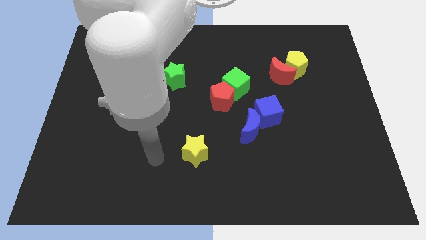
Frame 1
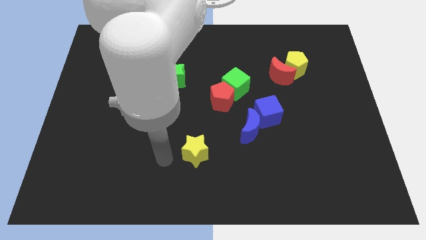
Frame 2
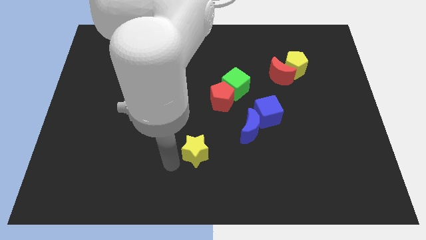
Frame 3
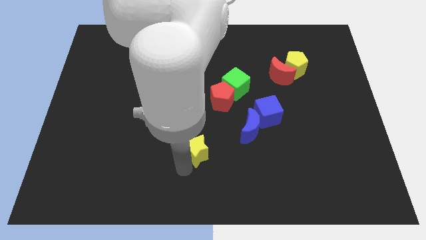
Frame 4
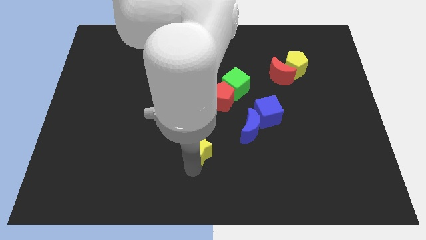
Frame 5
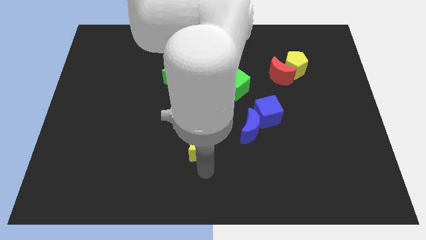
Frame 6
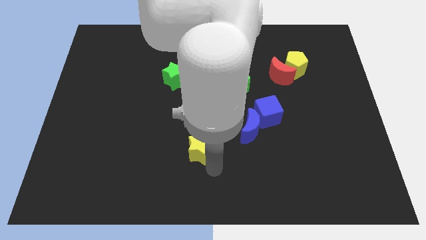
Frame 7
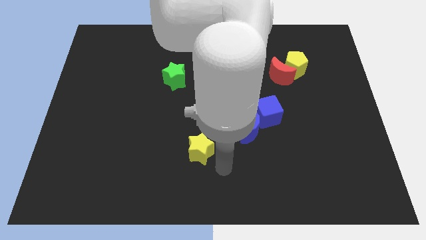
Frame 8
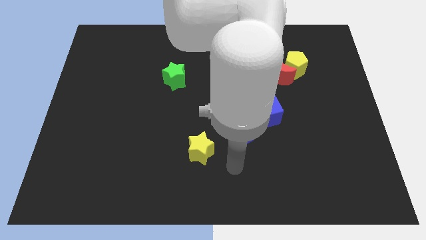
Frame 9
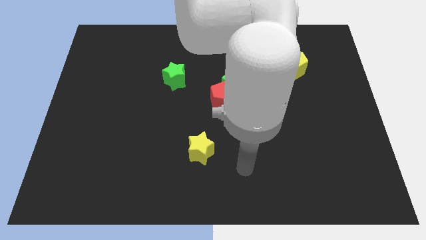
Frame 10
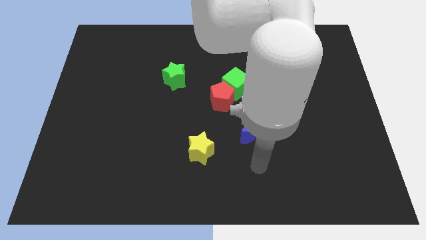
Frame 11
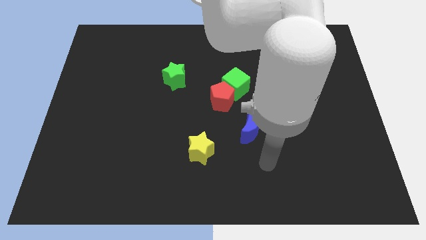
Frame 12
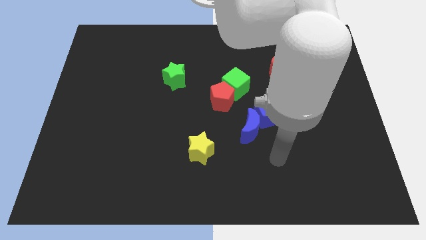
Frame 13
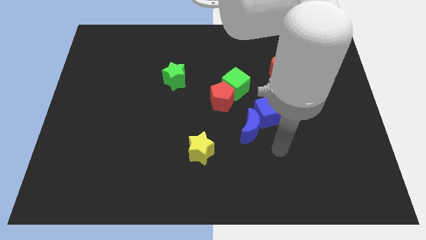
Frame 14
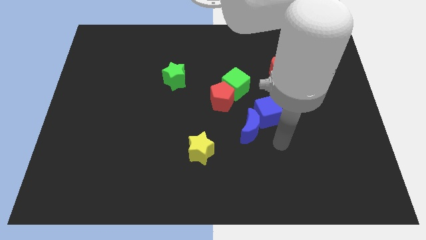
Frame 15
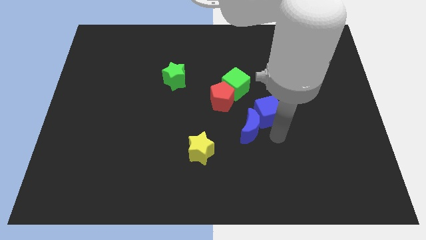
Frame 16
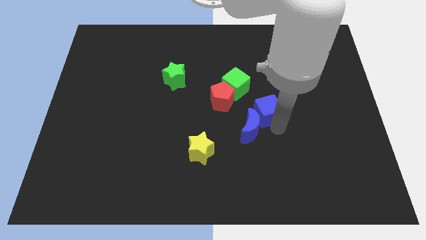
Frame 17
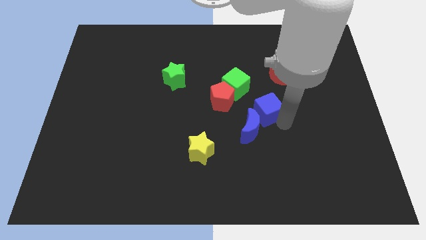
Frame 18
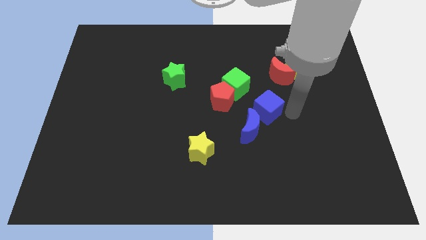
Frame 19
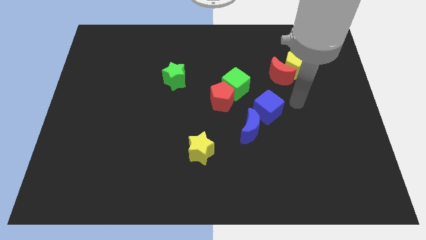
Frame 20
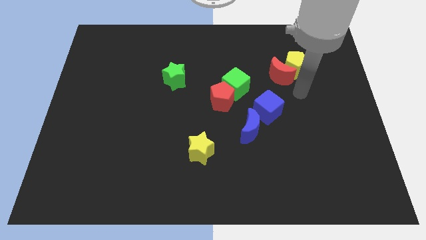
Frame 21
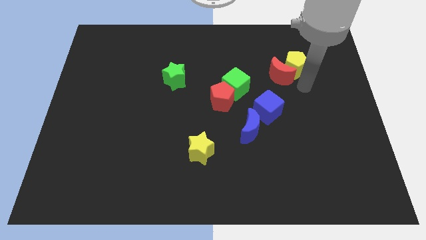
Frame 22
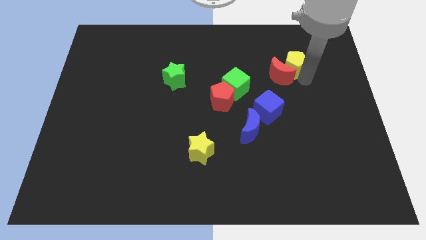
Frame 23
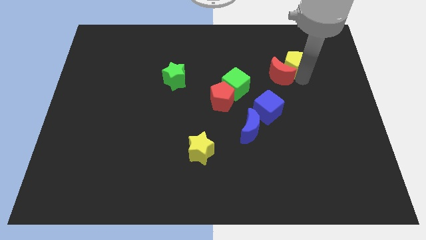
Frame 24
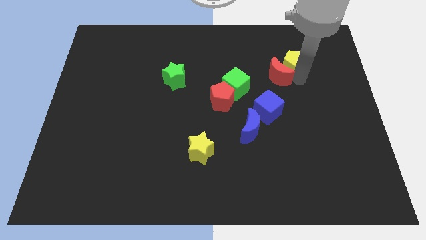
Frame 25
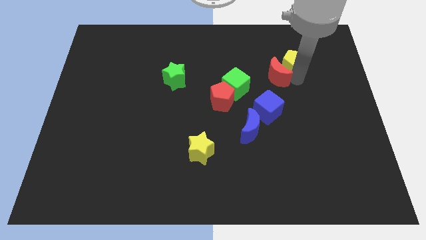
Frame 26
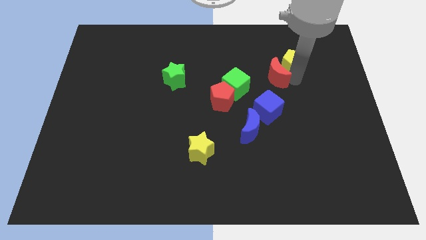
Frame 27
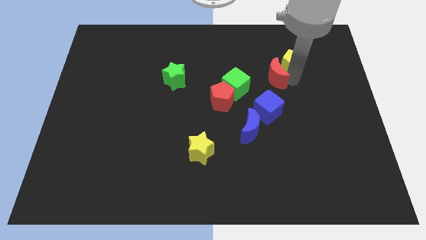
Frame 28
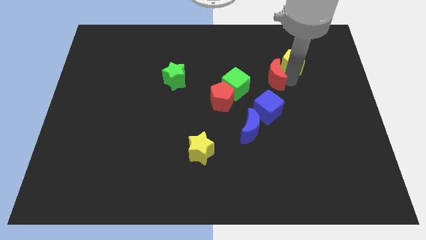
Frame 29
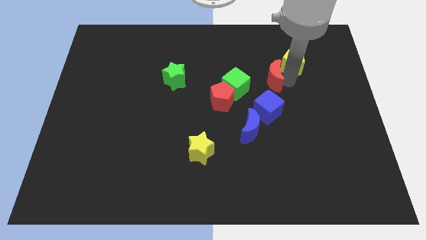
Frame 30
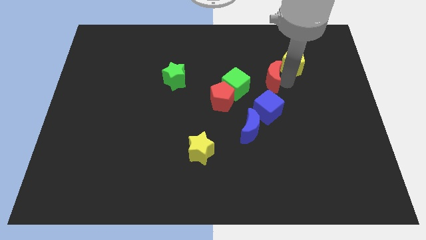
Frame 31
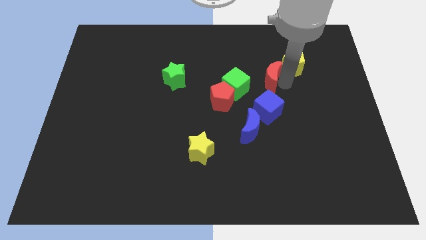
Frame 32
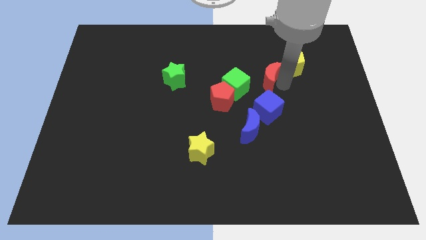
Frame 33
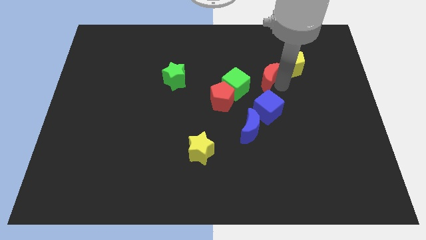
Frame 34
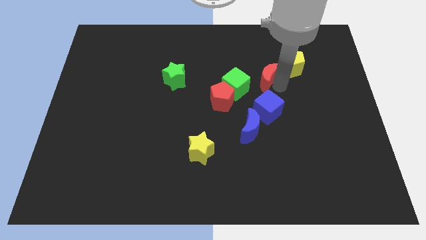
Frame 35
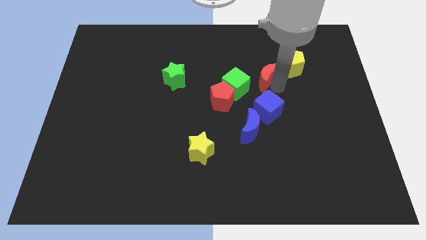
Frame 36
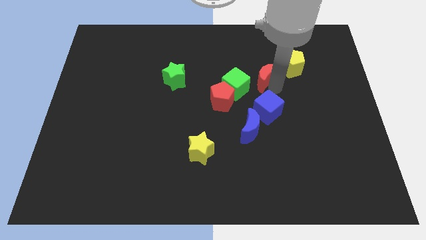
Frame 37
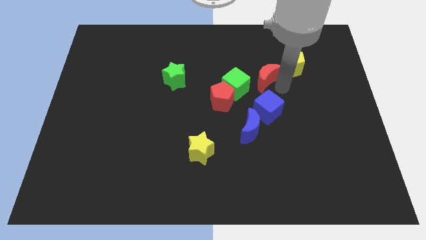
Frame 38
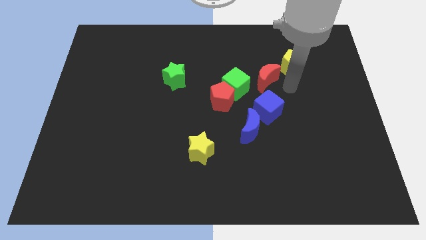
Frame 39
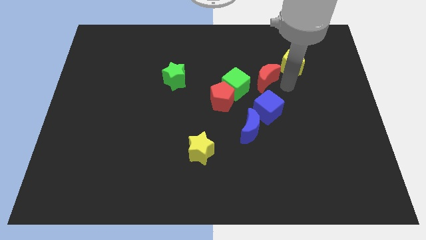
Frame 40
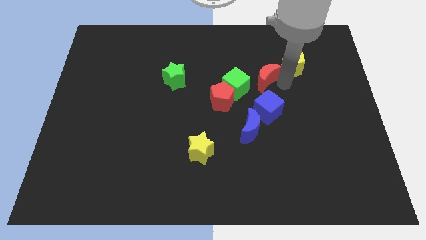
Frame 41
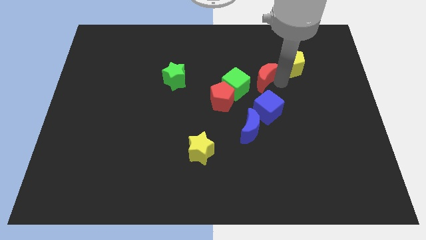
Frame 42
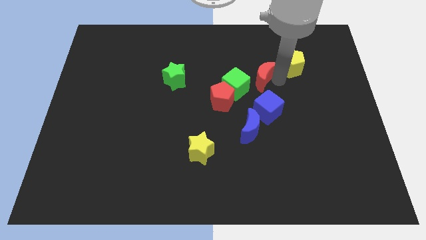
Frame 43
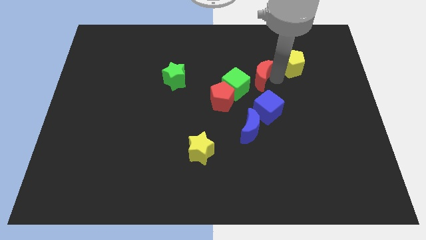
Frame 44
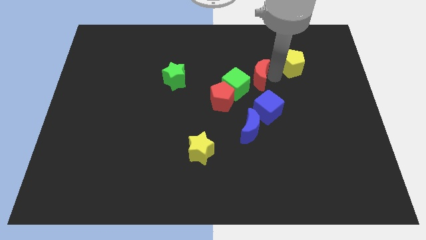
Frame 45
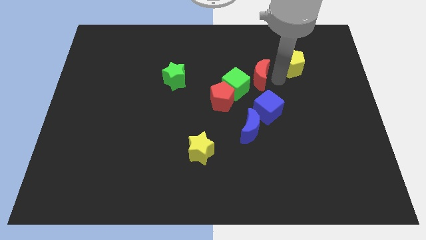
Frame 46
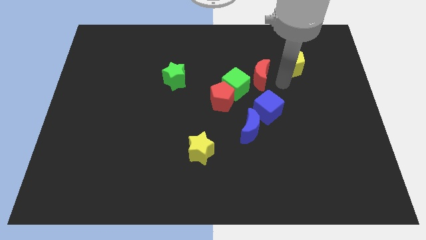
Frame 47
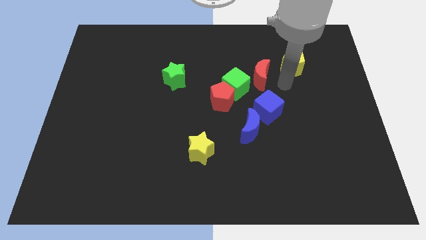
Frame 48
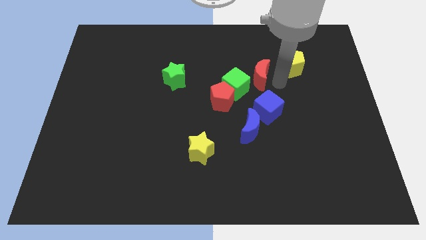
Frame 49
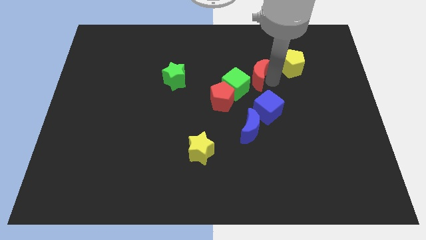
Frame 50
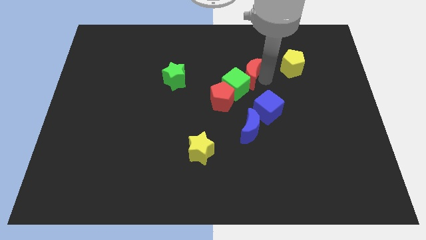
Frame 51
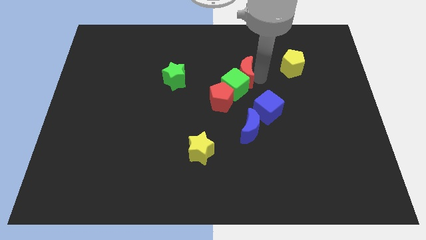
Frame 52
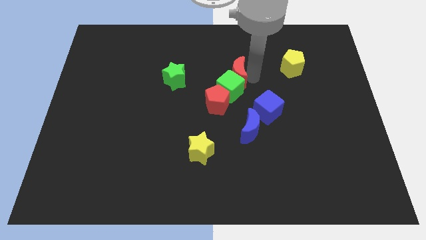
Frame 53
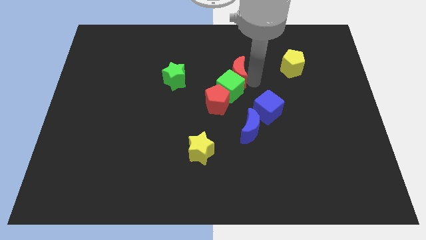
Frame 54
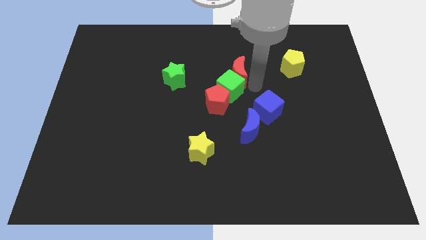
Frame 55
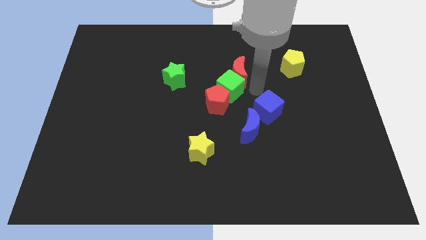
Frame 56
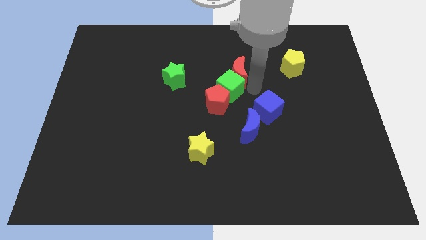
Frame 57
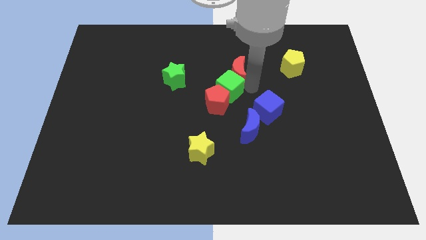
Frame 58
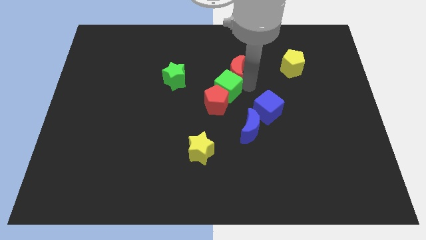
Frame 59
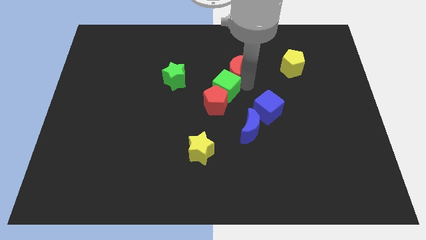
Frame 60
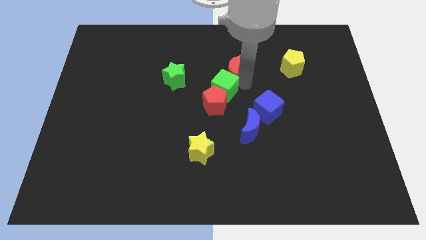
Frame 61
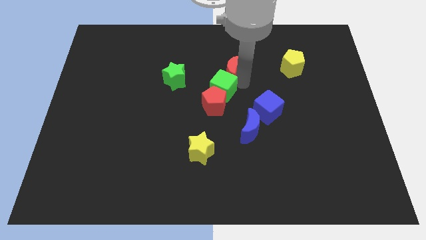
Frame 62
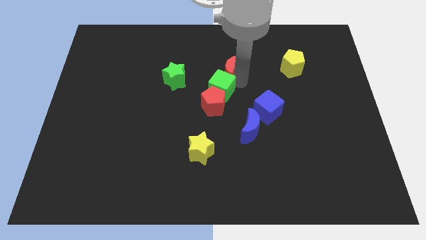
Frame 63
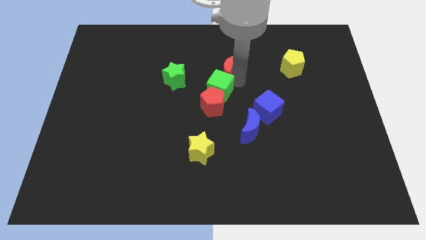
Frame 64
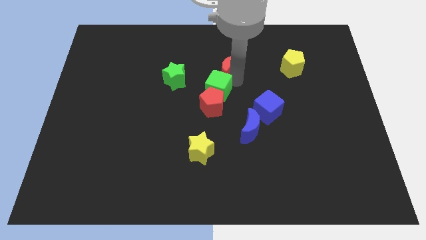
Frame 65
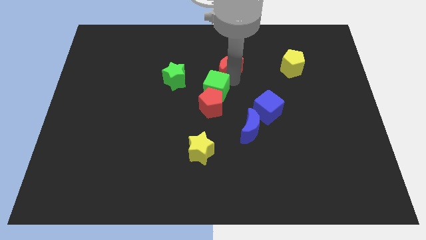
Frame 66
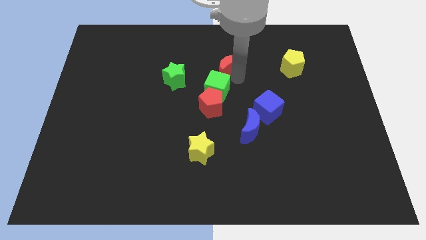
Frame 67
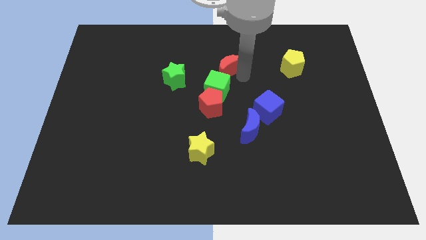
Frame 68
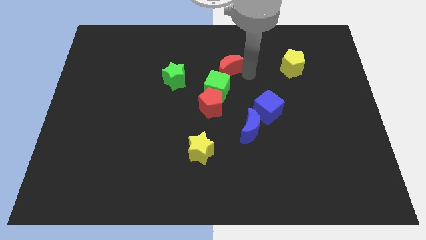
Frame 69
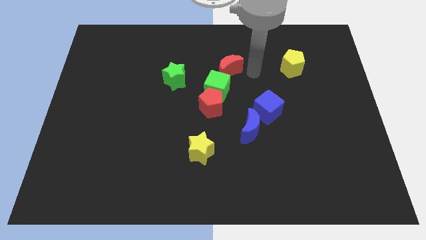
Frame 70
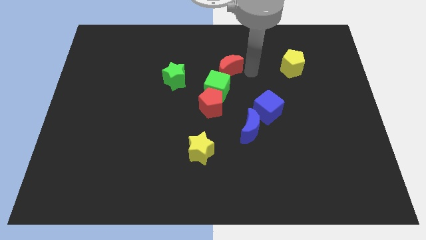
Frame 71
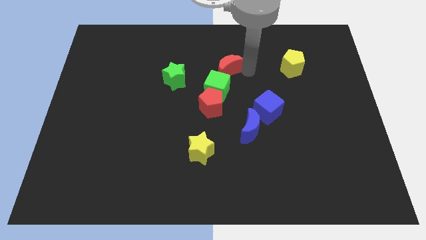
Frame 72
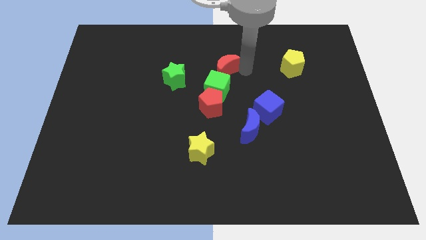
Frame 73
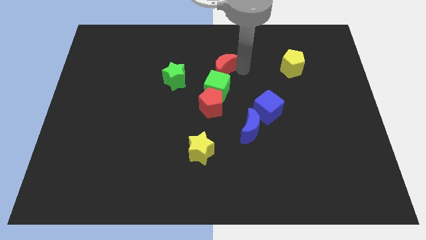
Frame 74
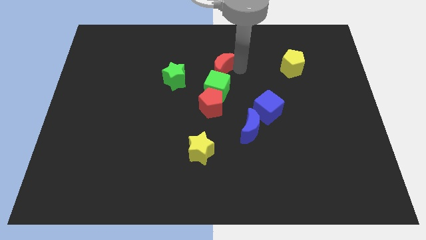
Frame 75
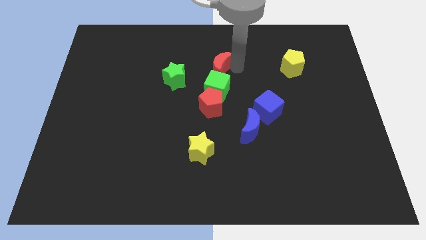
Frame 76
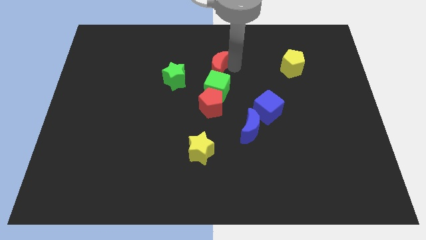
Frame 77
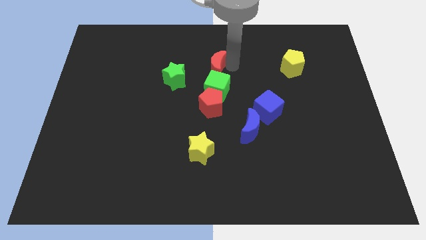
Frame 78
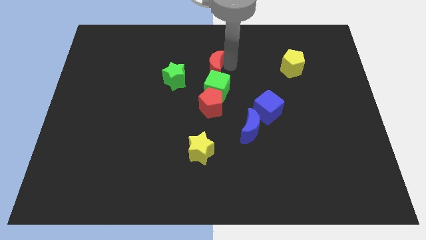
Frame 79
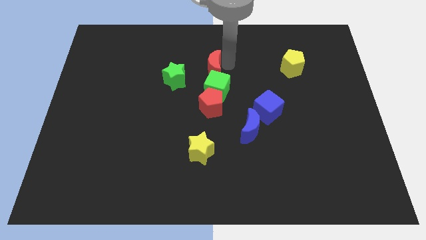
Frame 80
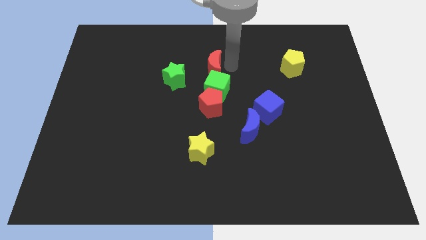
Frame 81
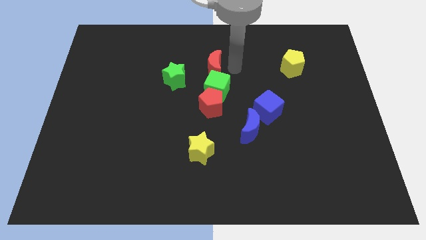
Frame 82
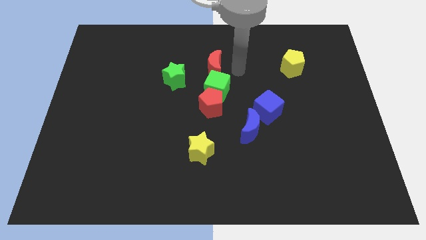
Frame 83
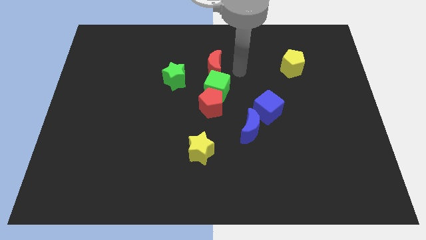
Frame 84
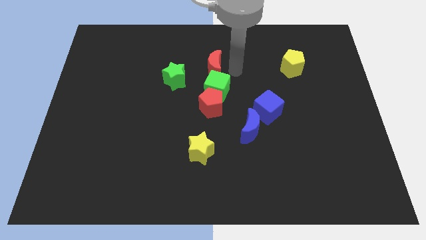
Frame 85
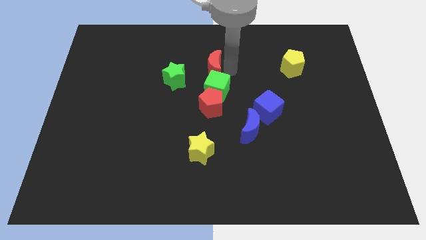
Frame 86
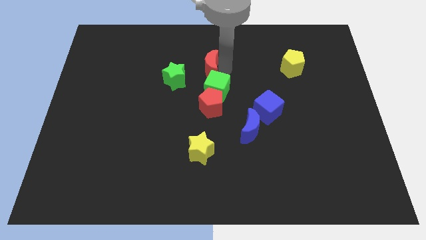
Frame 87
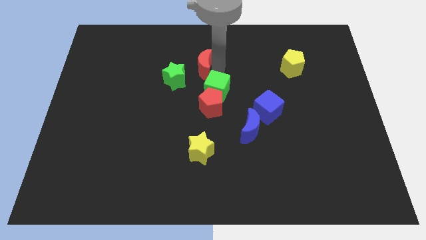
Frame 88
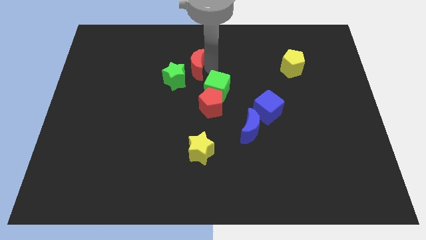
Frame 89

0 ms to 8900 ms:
push the red moon left
